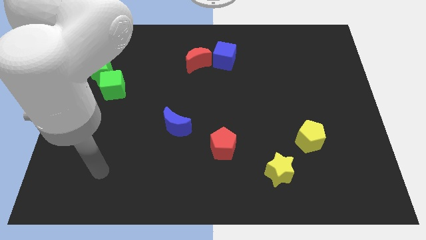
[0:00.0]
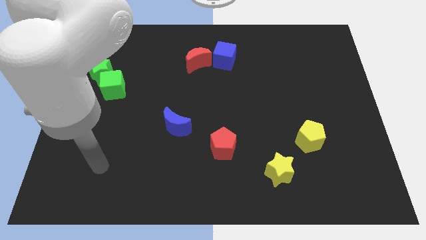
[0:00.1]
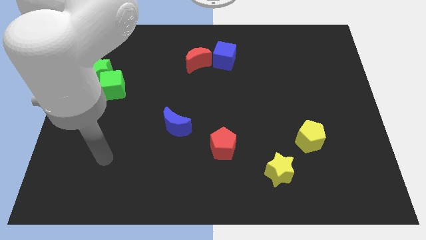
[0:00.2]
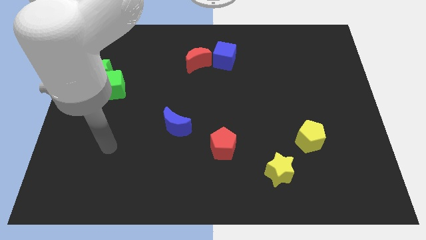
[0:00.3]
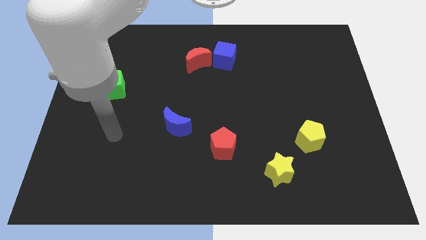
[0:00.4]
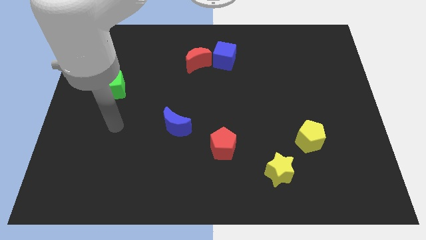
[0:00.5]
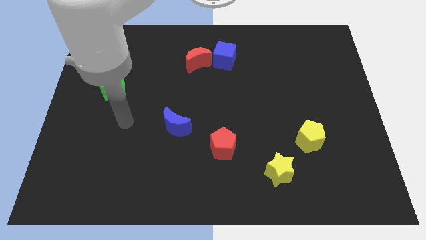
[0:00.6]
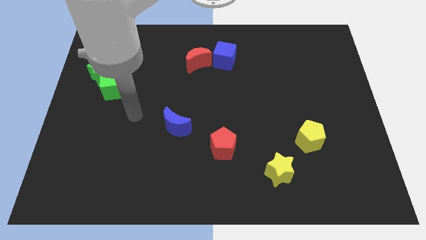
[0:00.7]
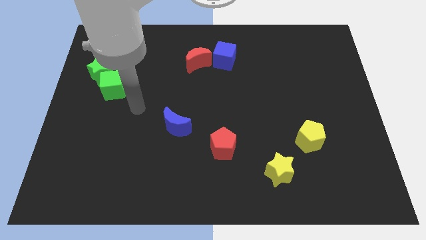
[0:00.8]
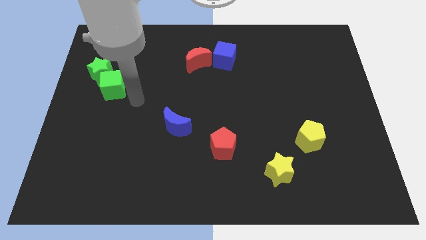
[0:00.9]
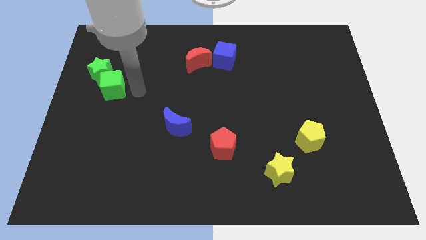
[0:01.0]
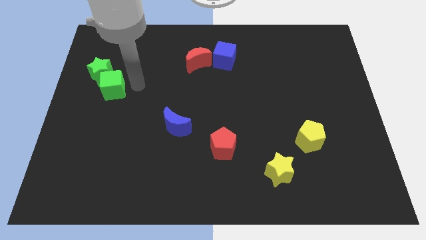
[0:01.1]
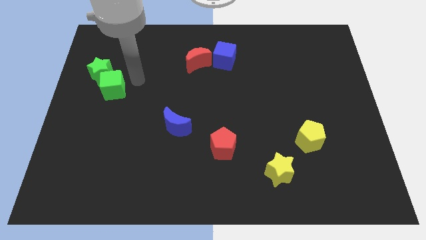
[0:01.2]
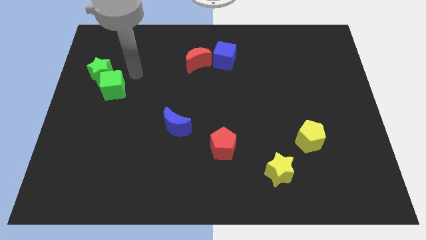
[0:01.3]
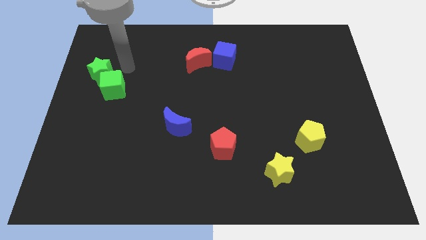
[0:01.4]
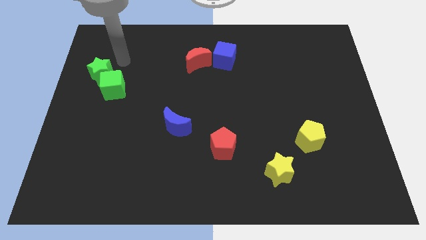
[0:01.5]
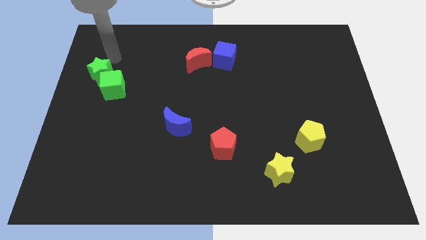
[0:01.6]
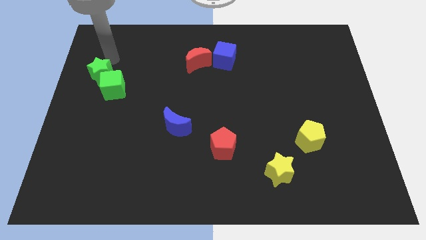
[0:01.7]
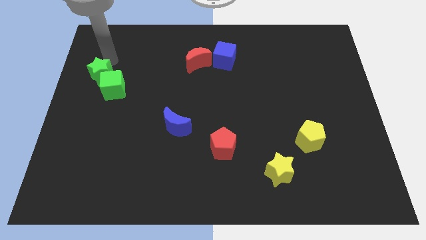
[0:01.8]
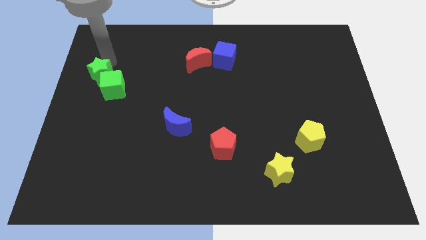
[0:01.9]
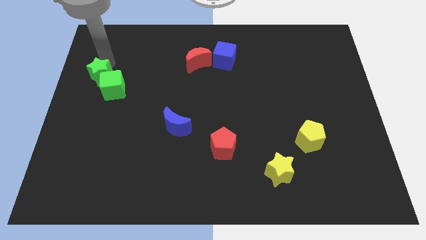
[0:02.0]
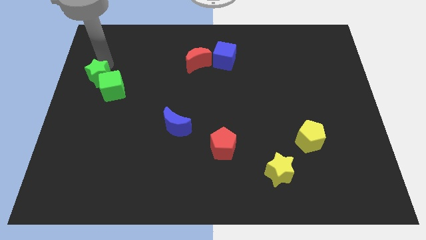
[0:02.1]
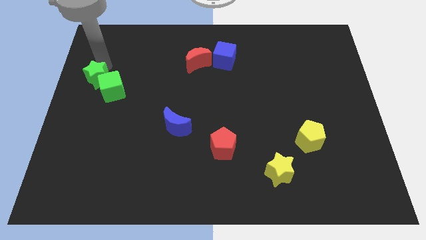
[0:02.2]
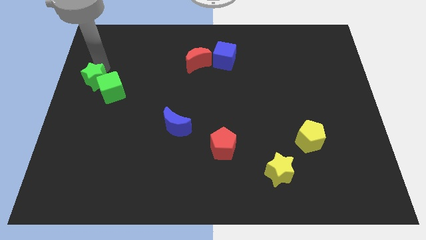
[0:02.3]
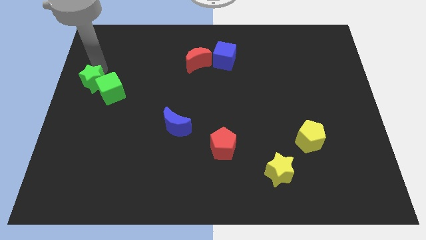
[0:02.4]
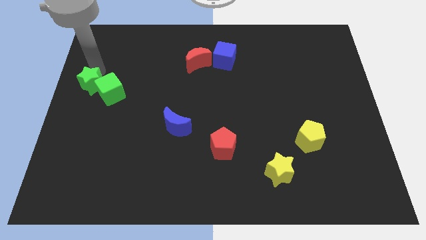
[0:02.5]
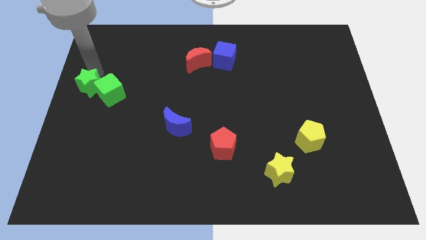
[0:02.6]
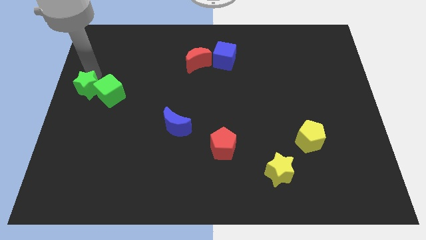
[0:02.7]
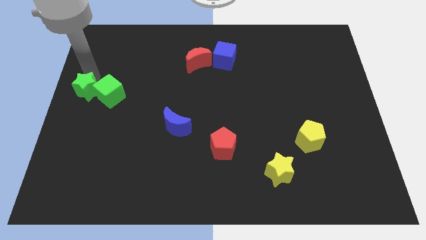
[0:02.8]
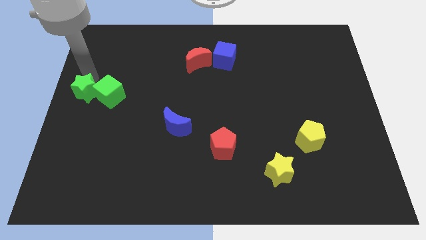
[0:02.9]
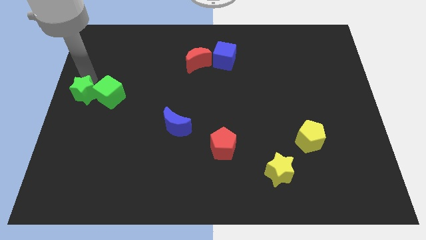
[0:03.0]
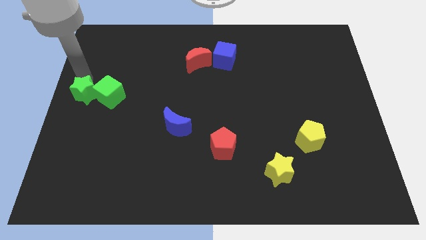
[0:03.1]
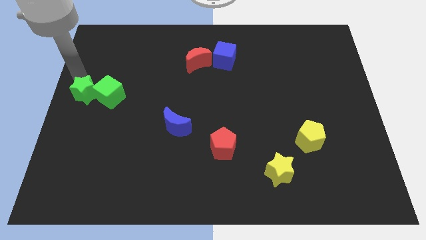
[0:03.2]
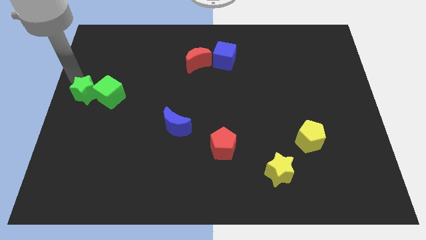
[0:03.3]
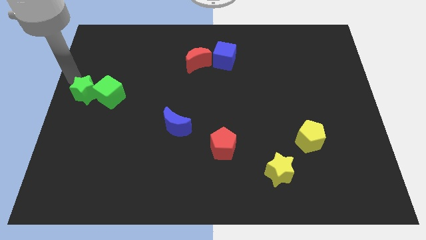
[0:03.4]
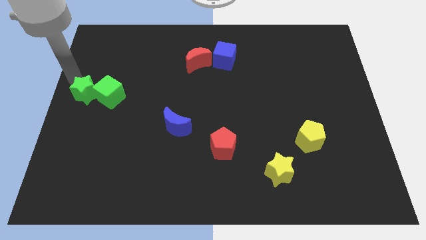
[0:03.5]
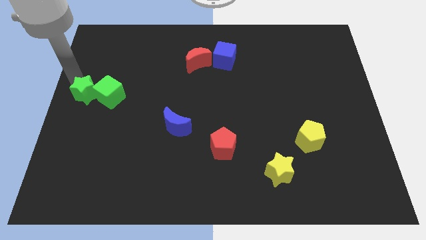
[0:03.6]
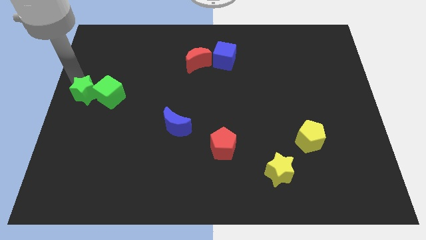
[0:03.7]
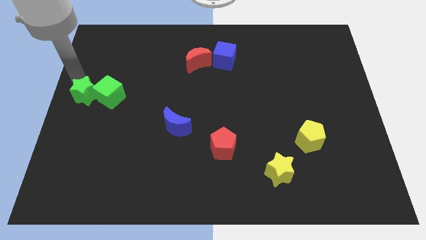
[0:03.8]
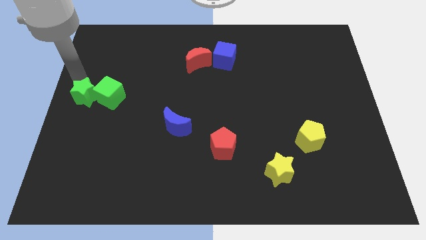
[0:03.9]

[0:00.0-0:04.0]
slightly slide the green star down

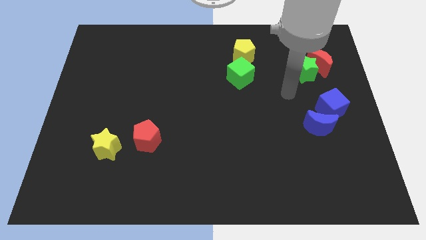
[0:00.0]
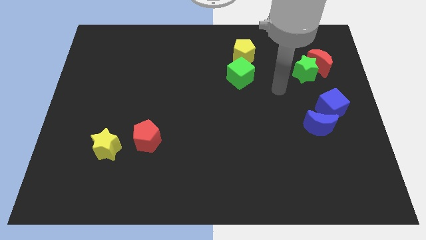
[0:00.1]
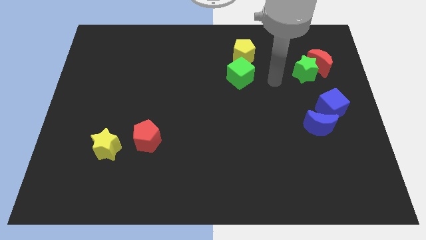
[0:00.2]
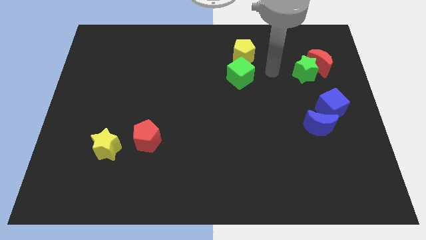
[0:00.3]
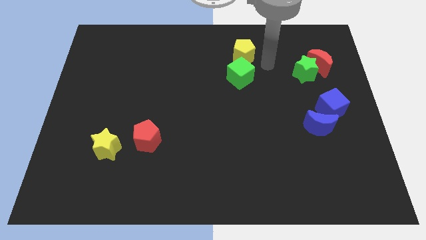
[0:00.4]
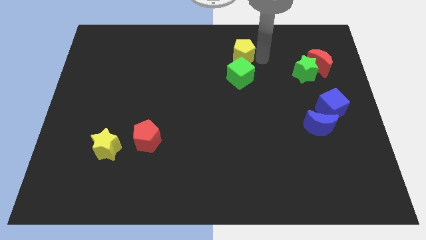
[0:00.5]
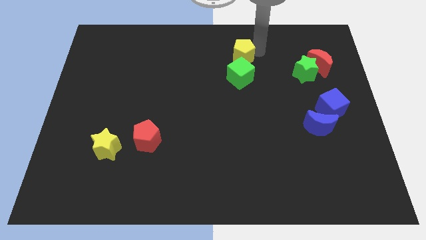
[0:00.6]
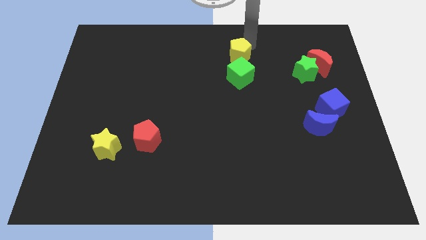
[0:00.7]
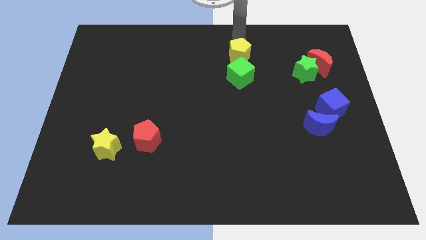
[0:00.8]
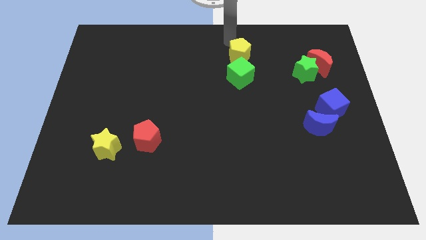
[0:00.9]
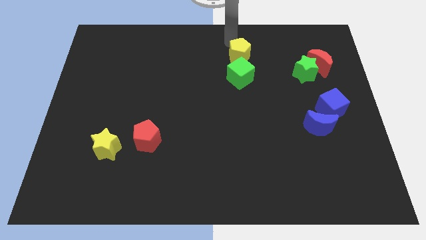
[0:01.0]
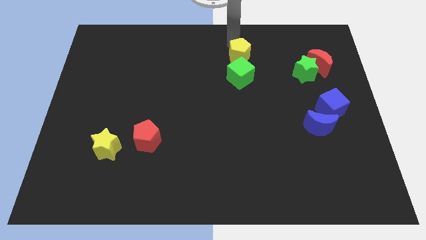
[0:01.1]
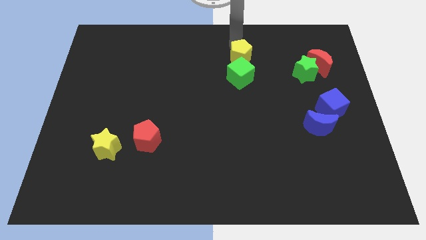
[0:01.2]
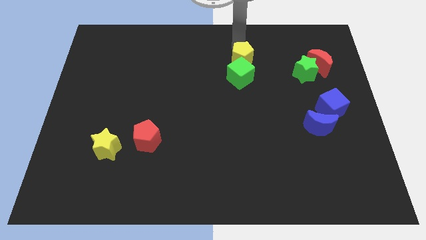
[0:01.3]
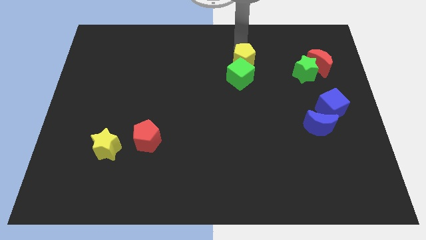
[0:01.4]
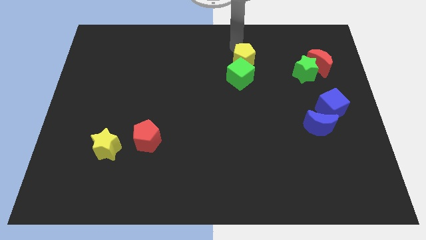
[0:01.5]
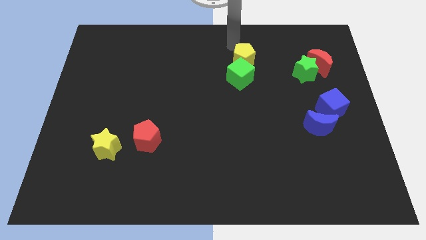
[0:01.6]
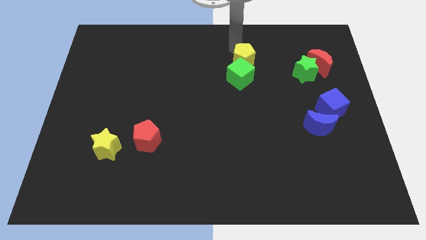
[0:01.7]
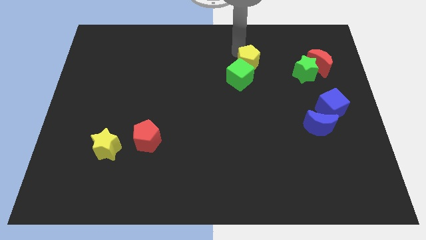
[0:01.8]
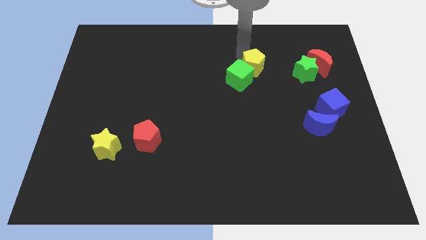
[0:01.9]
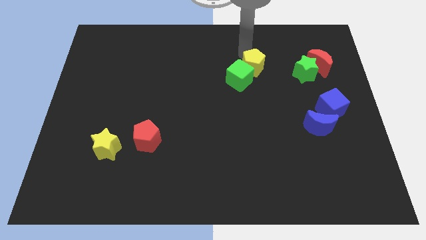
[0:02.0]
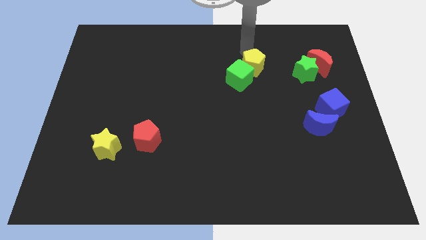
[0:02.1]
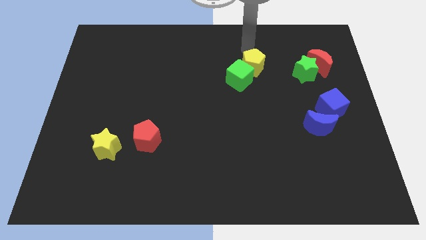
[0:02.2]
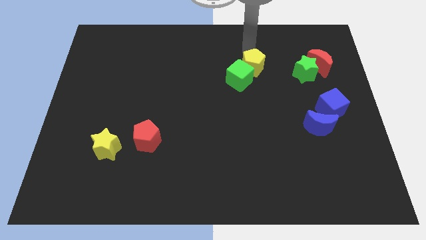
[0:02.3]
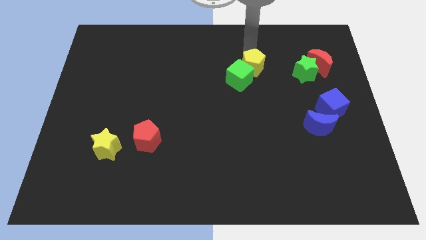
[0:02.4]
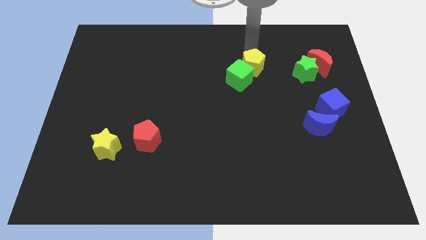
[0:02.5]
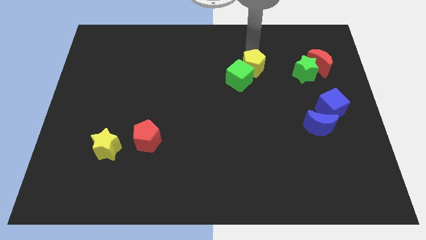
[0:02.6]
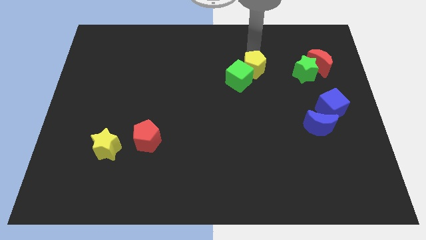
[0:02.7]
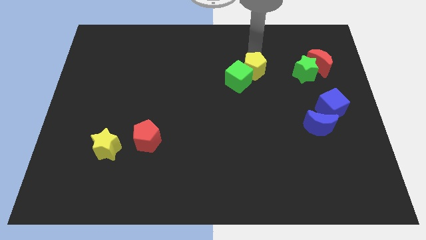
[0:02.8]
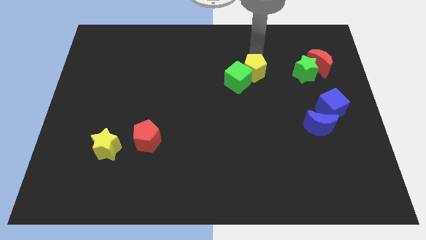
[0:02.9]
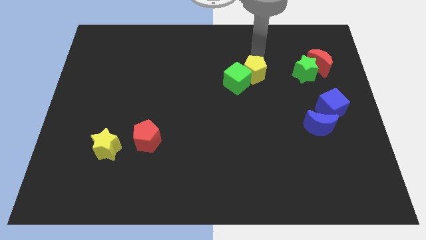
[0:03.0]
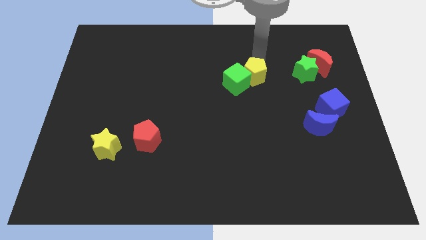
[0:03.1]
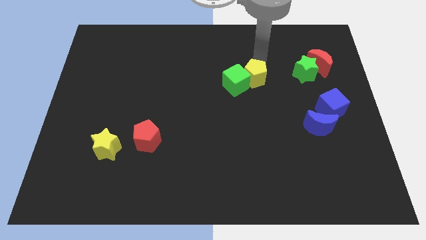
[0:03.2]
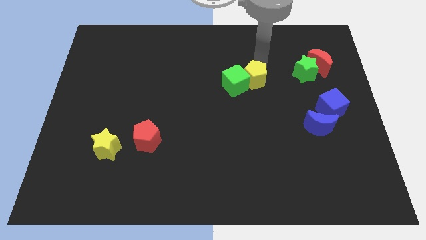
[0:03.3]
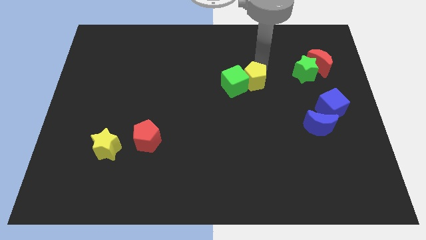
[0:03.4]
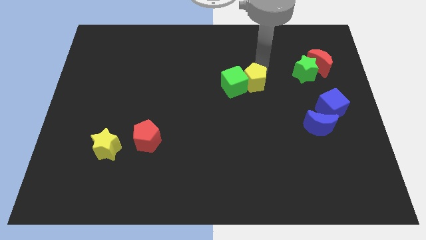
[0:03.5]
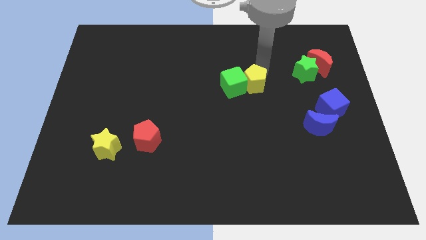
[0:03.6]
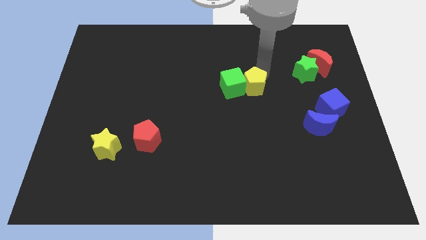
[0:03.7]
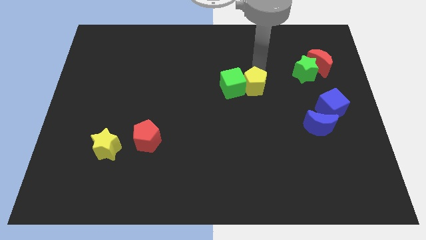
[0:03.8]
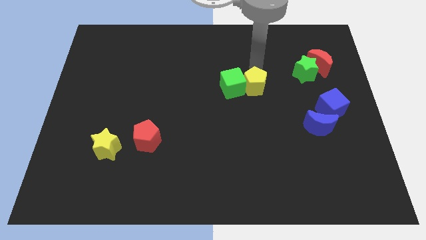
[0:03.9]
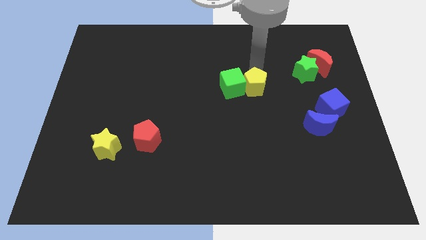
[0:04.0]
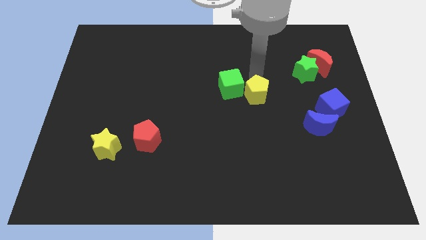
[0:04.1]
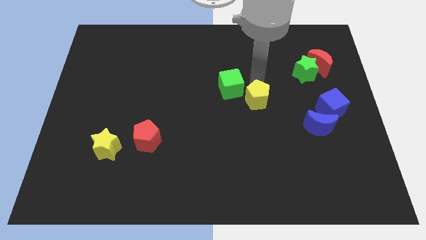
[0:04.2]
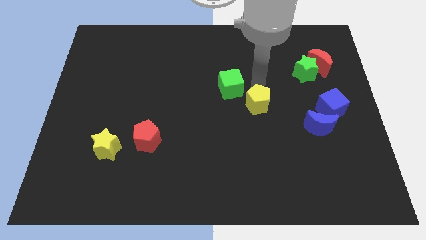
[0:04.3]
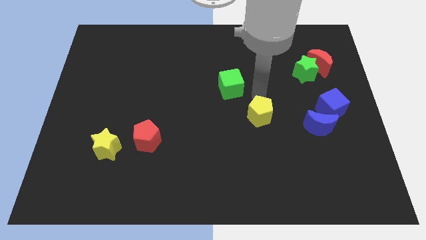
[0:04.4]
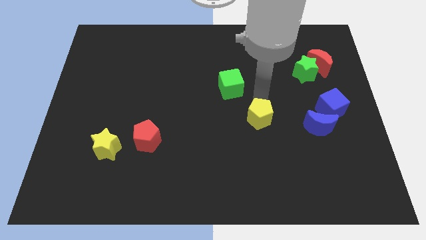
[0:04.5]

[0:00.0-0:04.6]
slide the yellow pentagon downwards
